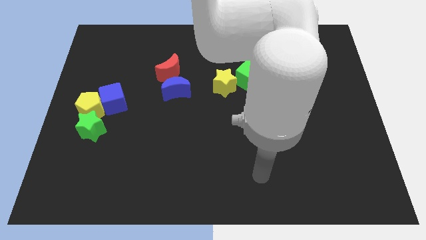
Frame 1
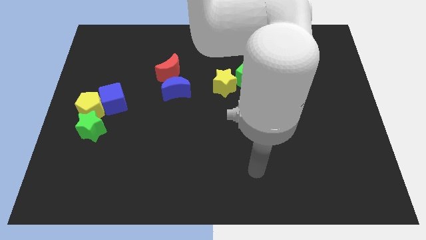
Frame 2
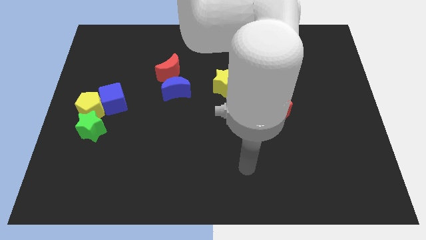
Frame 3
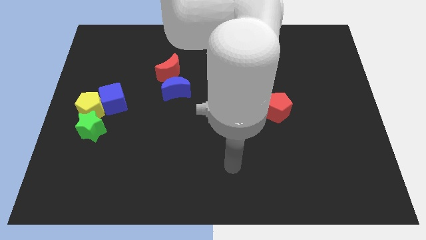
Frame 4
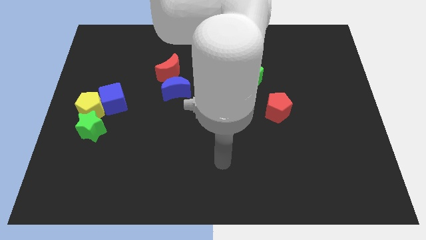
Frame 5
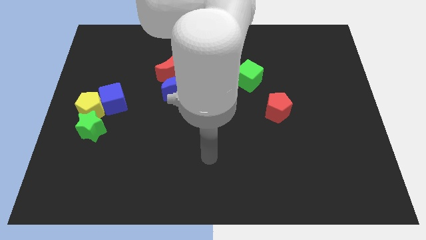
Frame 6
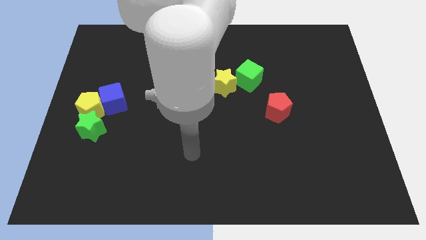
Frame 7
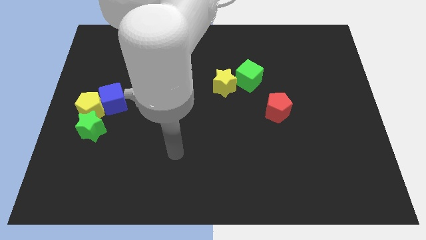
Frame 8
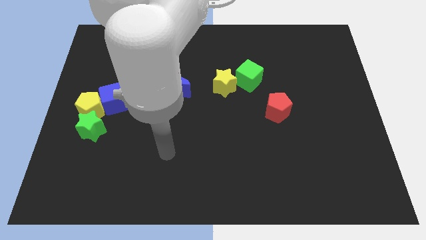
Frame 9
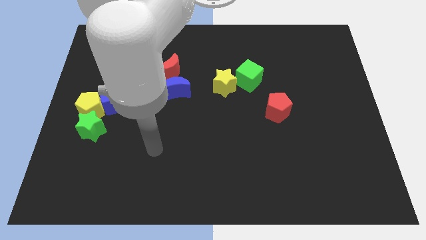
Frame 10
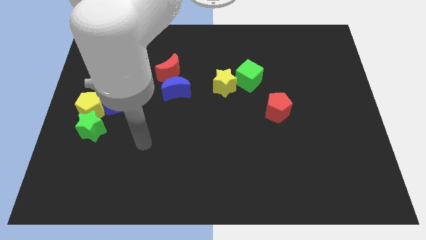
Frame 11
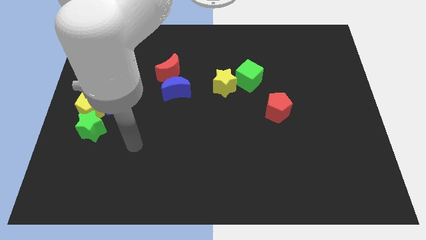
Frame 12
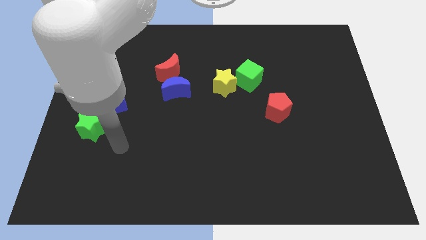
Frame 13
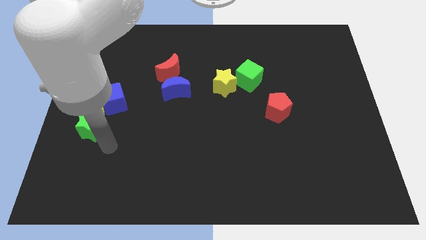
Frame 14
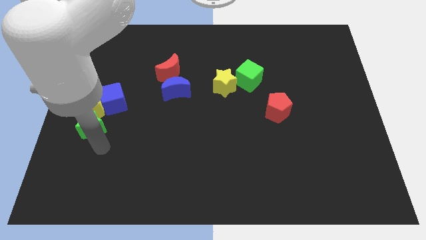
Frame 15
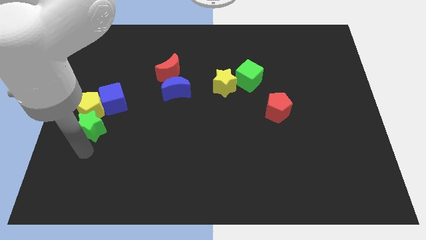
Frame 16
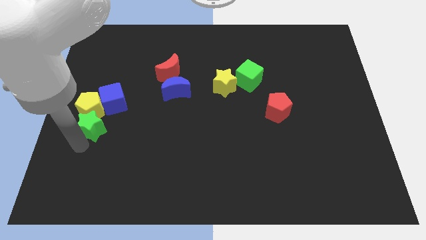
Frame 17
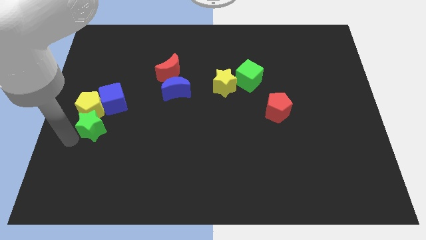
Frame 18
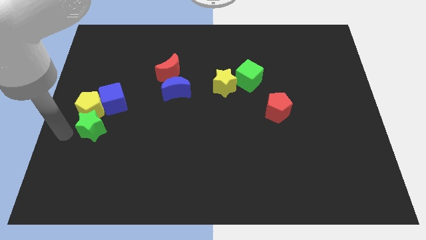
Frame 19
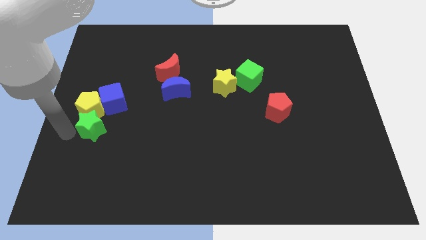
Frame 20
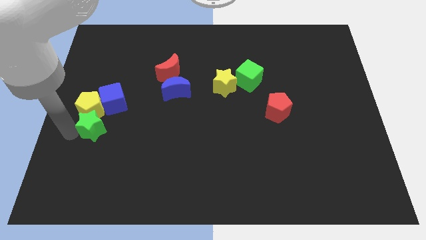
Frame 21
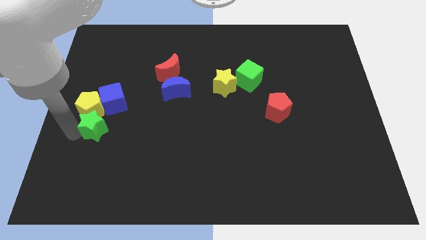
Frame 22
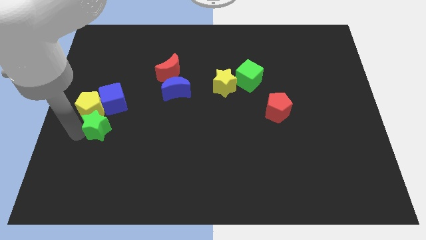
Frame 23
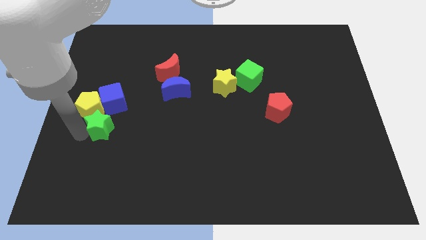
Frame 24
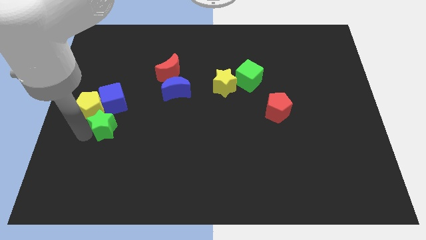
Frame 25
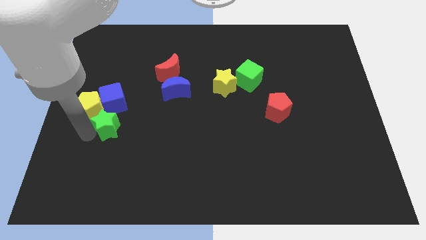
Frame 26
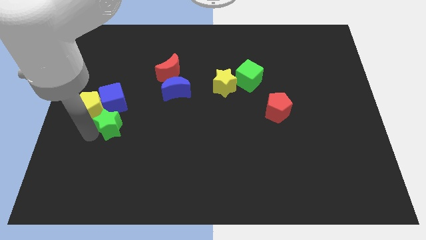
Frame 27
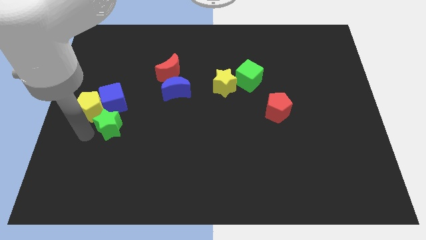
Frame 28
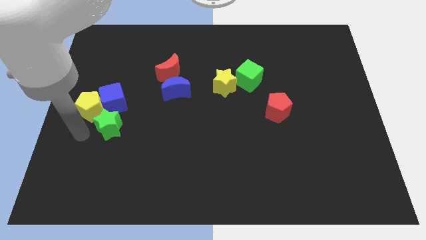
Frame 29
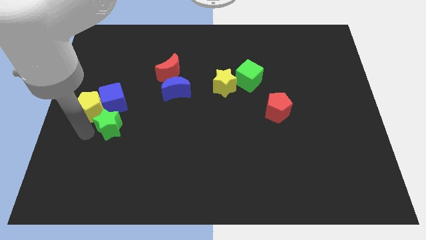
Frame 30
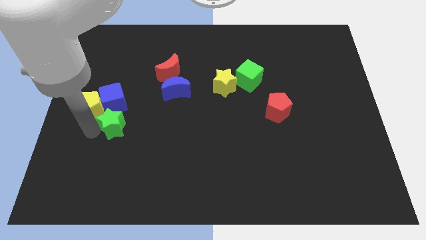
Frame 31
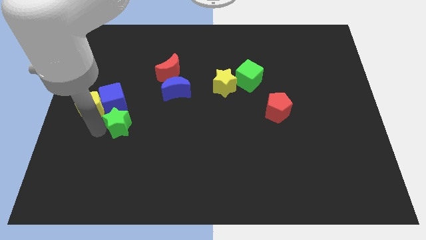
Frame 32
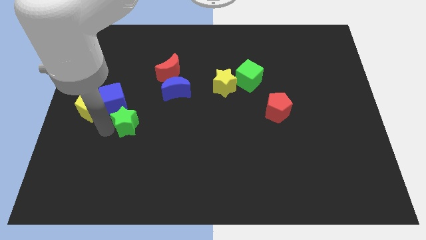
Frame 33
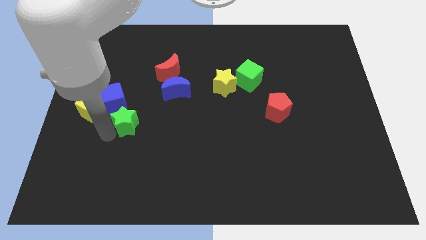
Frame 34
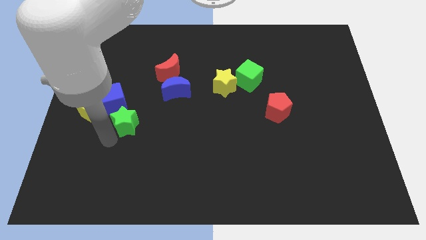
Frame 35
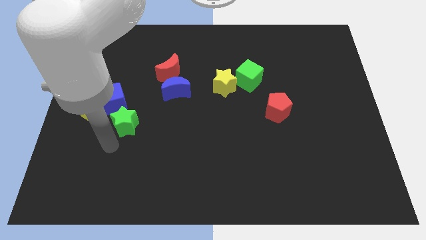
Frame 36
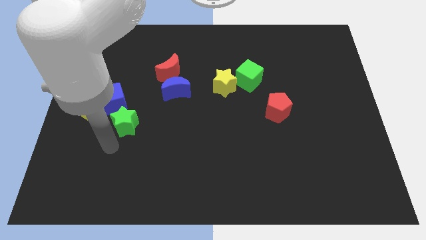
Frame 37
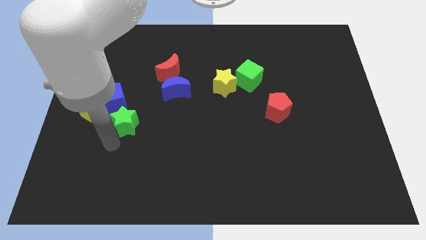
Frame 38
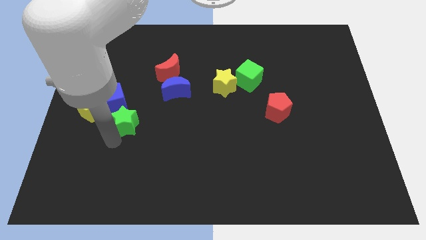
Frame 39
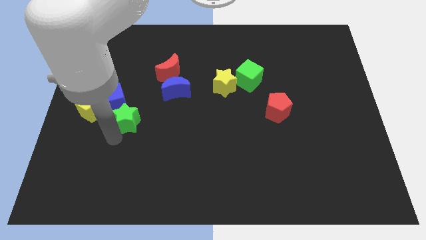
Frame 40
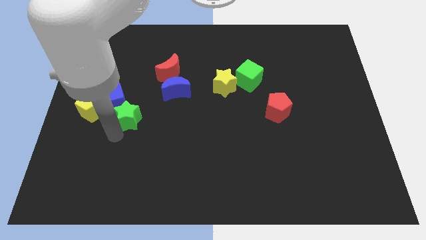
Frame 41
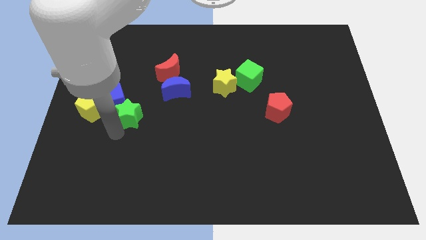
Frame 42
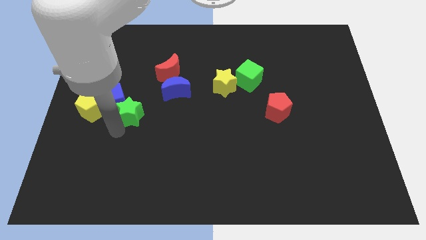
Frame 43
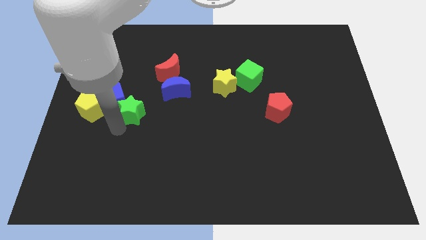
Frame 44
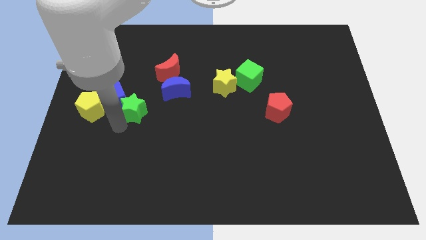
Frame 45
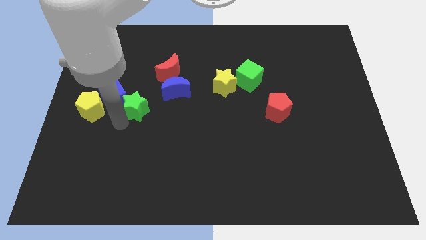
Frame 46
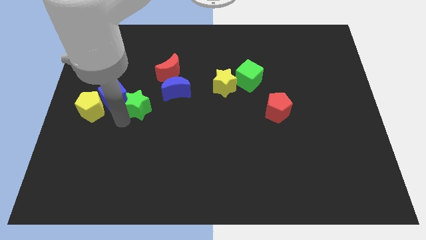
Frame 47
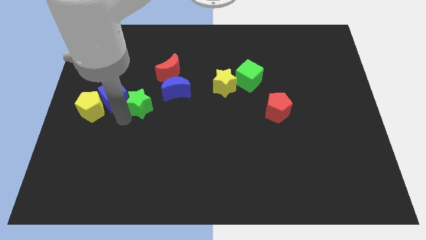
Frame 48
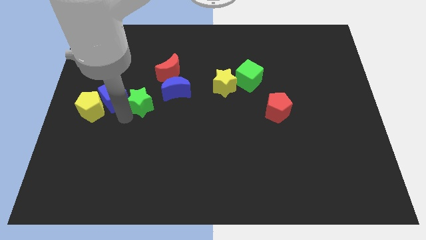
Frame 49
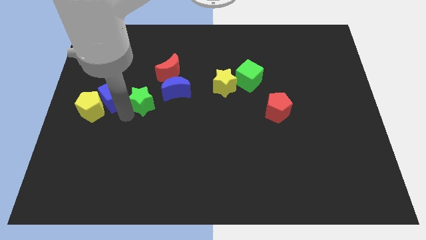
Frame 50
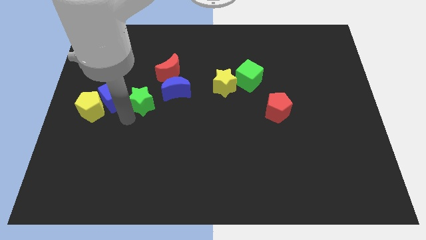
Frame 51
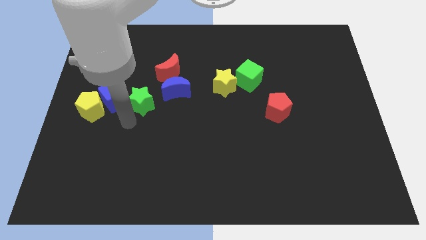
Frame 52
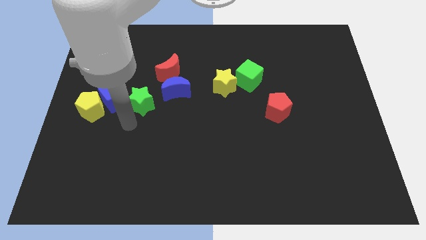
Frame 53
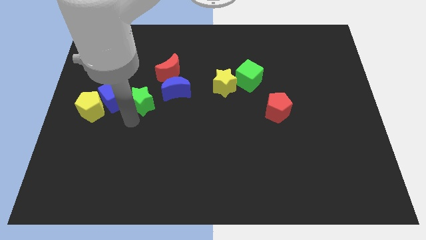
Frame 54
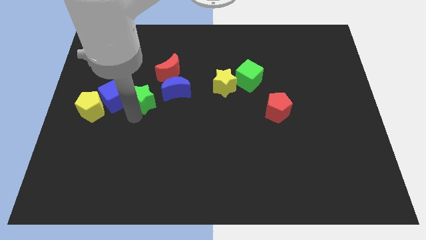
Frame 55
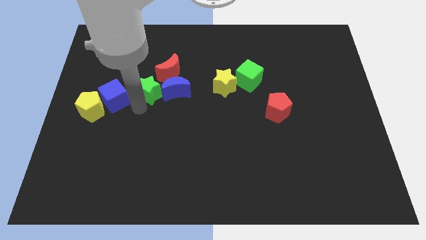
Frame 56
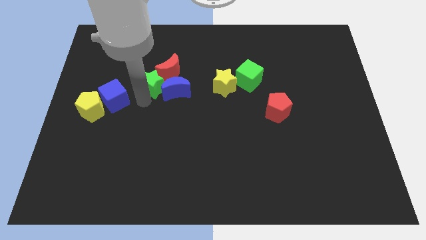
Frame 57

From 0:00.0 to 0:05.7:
slide the green star towards the red moon

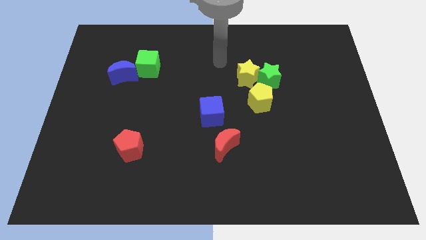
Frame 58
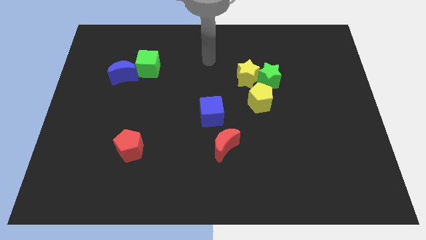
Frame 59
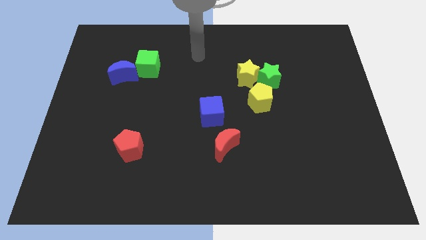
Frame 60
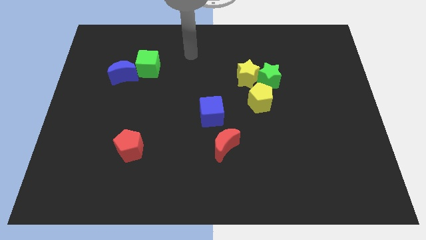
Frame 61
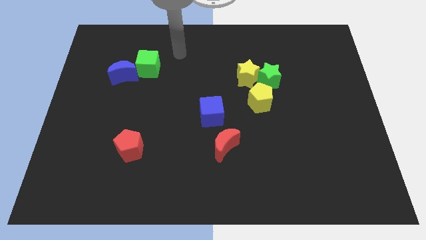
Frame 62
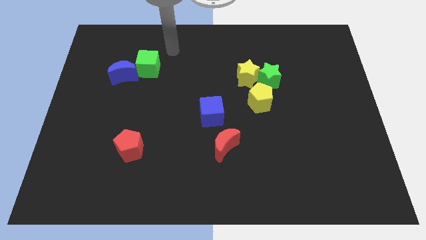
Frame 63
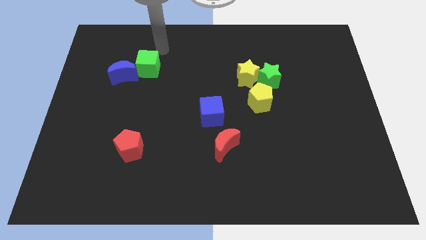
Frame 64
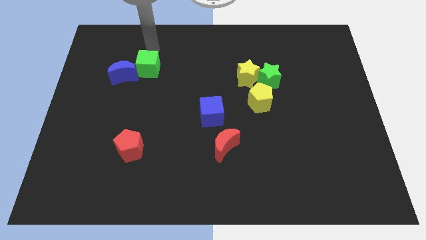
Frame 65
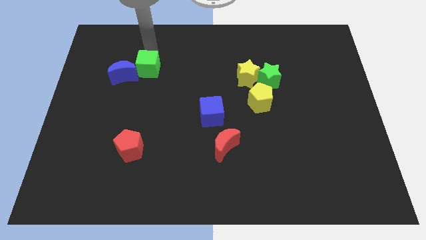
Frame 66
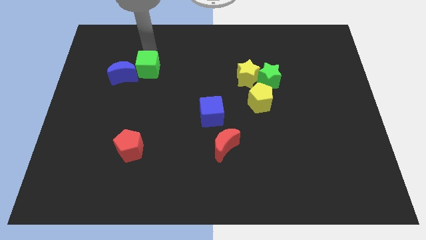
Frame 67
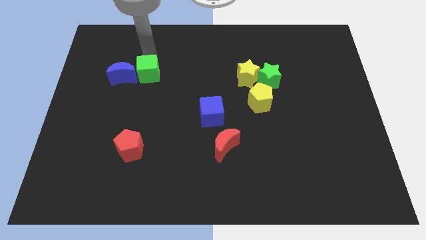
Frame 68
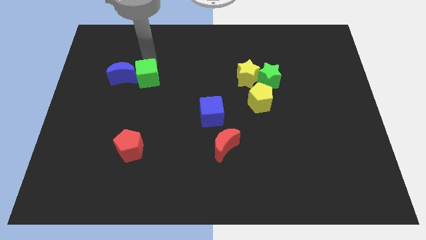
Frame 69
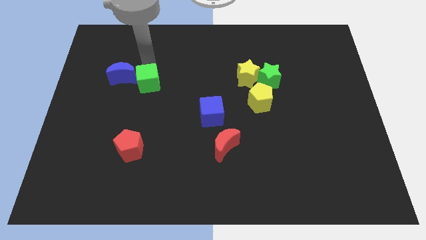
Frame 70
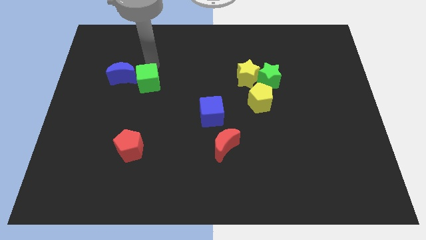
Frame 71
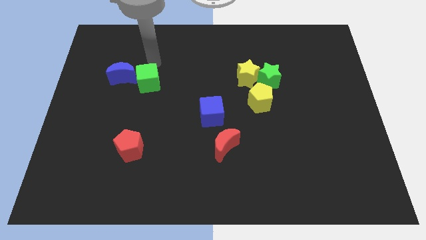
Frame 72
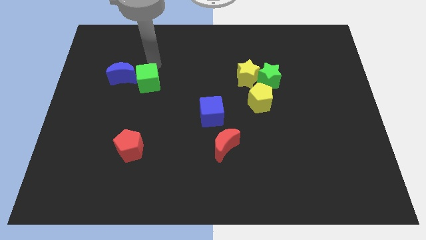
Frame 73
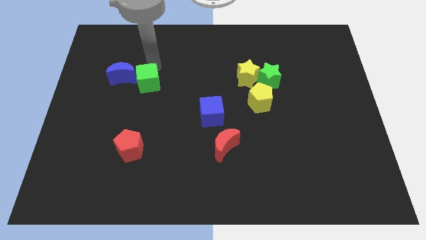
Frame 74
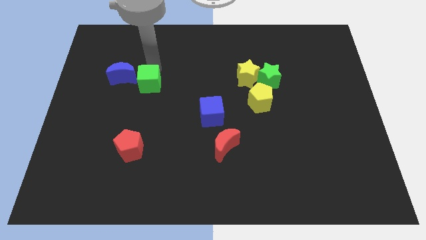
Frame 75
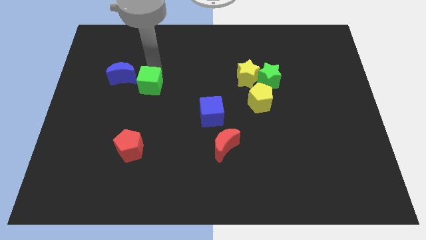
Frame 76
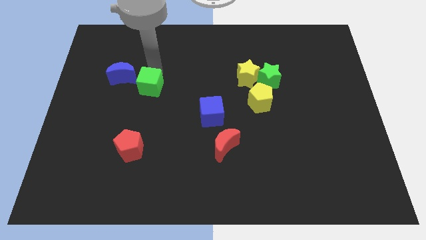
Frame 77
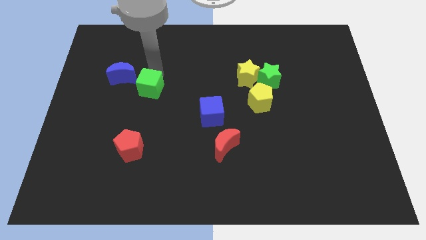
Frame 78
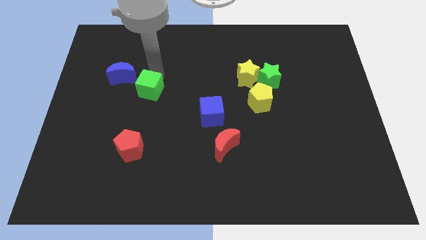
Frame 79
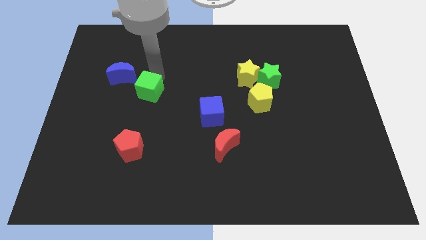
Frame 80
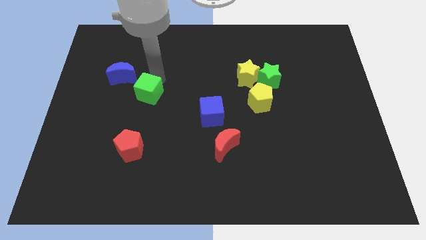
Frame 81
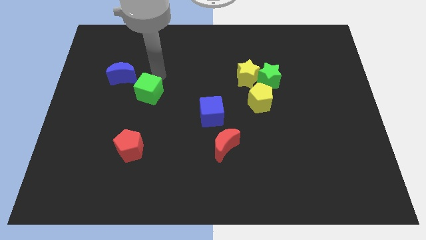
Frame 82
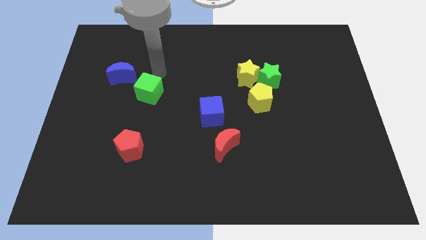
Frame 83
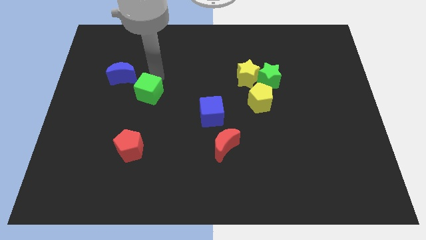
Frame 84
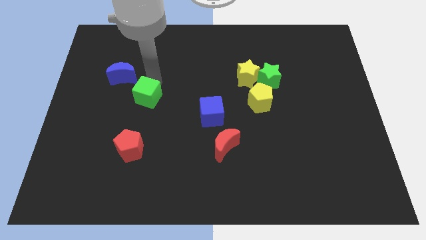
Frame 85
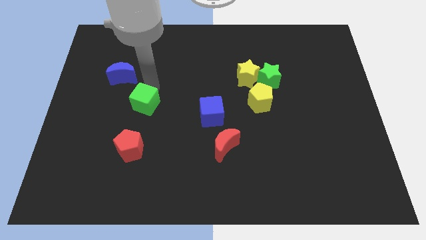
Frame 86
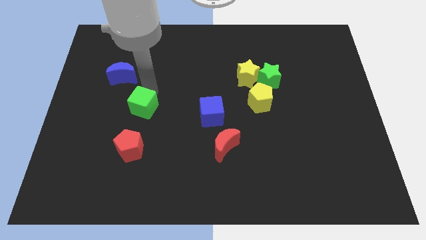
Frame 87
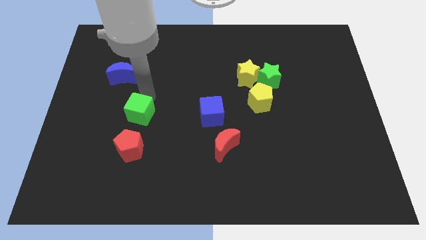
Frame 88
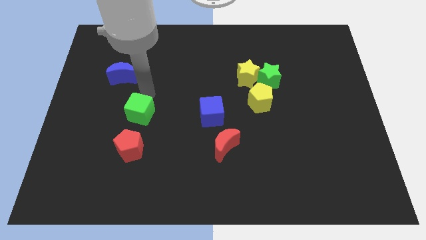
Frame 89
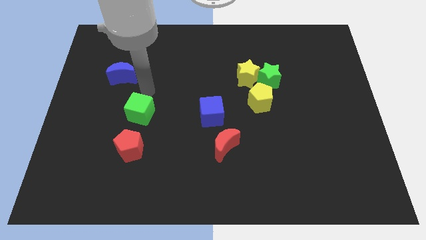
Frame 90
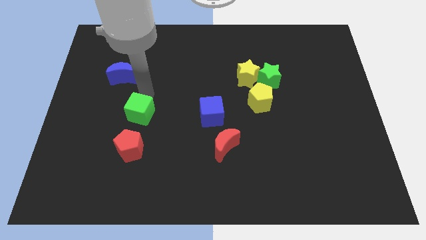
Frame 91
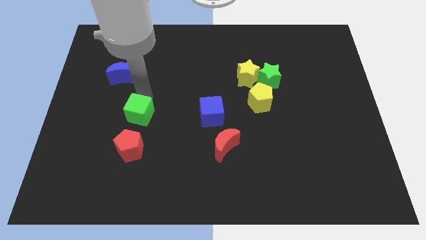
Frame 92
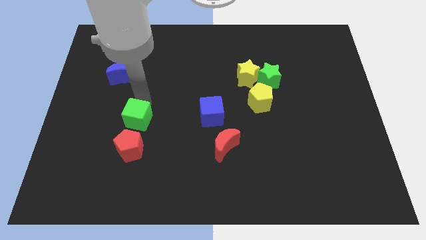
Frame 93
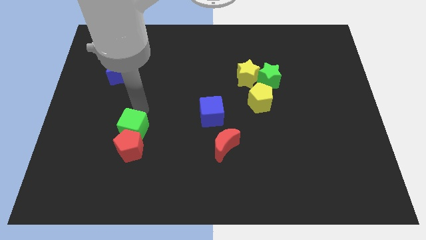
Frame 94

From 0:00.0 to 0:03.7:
push the green cube next to the red pentagon
